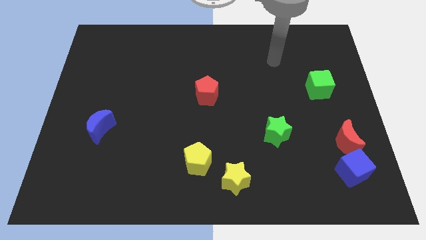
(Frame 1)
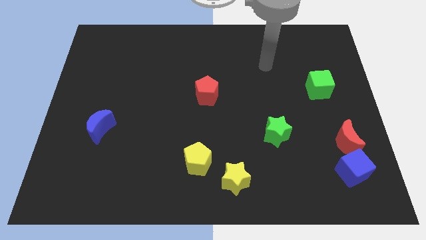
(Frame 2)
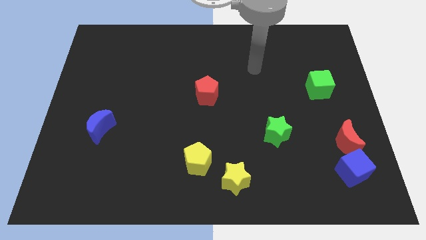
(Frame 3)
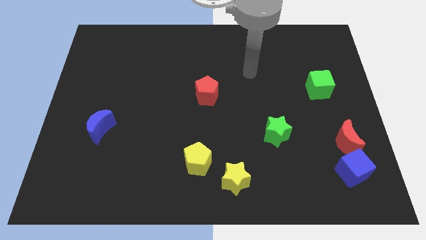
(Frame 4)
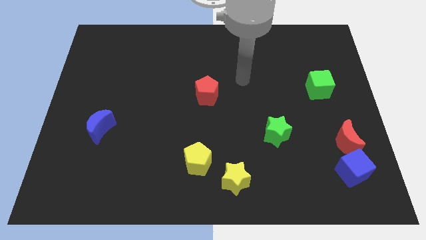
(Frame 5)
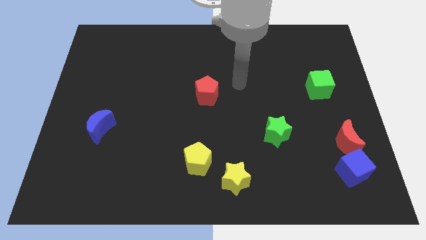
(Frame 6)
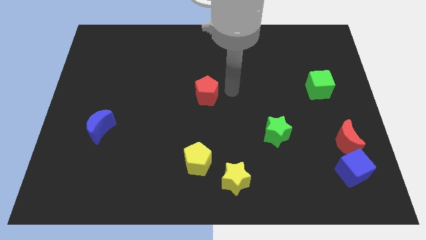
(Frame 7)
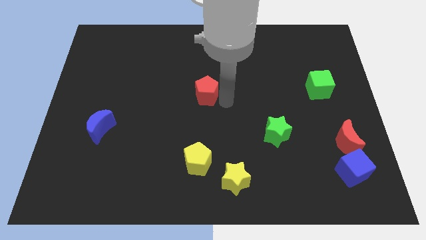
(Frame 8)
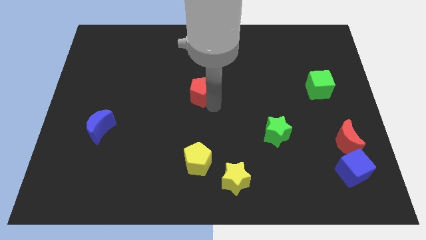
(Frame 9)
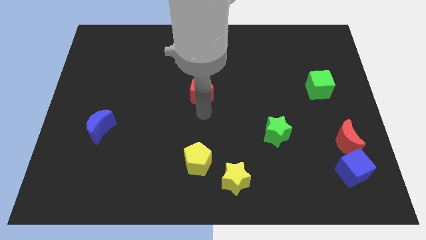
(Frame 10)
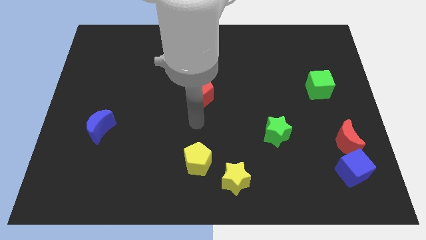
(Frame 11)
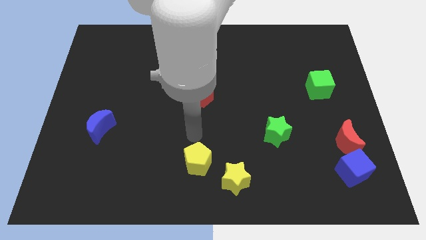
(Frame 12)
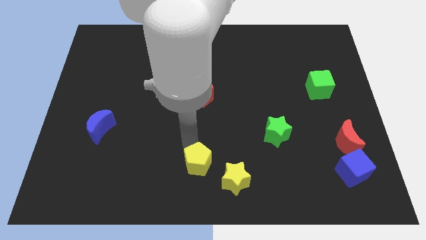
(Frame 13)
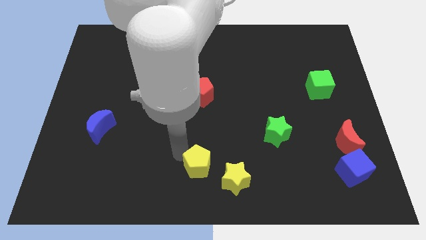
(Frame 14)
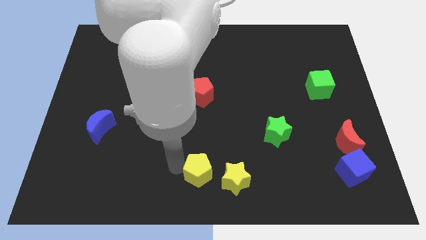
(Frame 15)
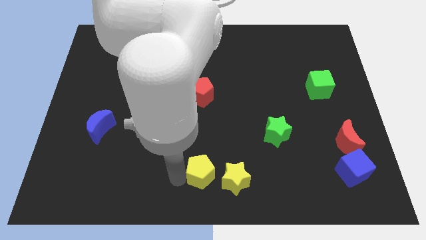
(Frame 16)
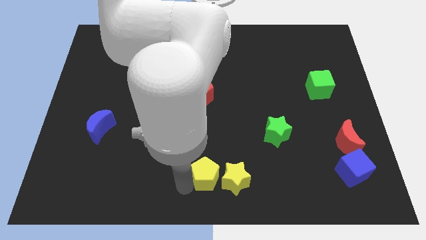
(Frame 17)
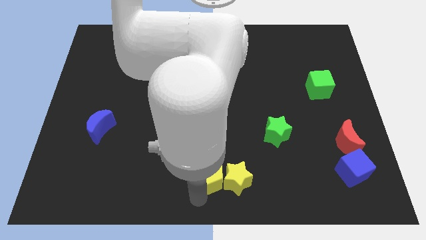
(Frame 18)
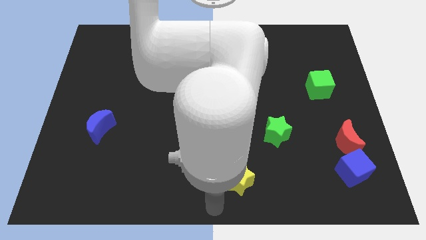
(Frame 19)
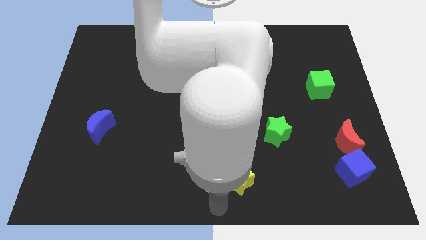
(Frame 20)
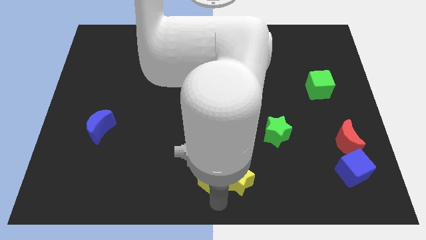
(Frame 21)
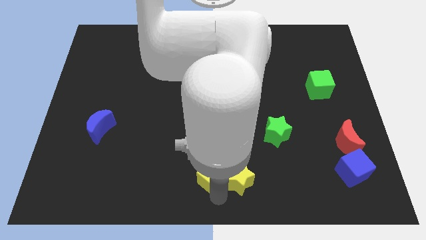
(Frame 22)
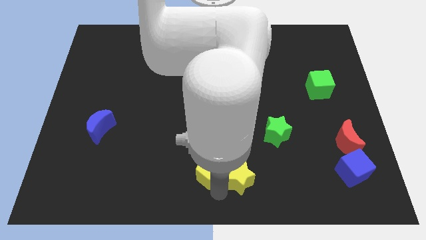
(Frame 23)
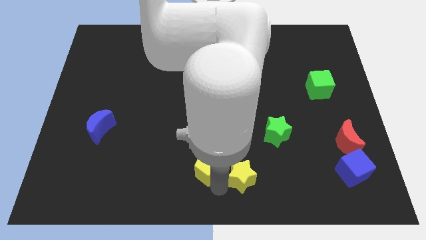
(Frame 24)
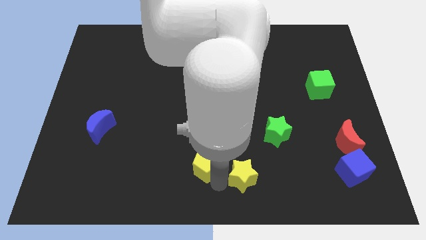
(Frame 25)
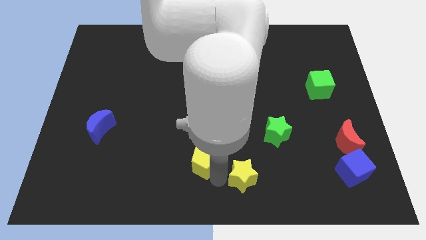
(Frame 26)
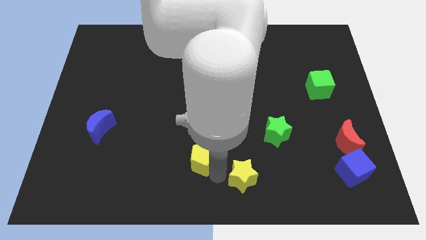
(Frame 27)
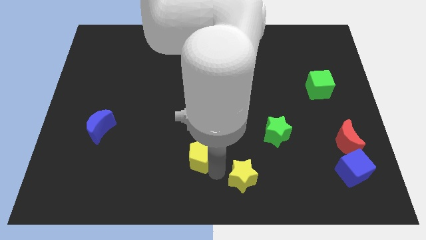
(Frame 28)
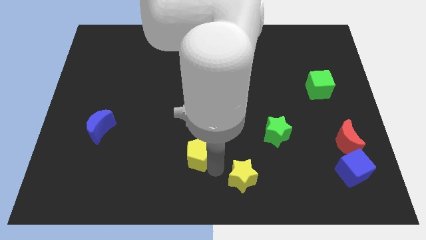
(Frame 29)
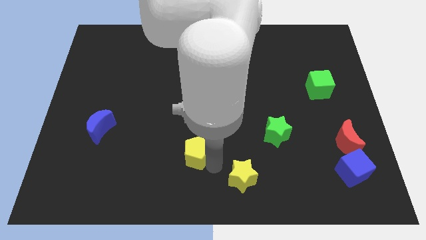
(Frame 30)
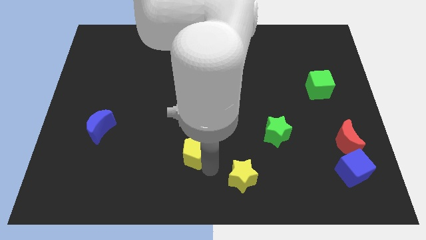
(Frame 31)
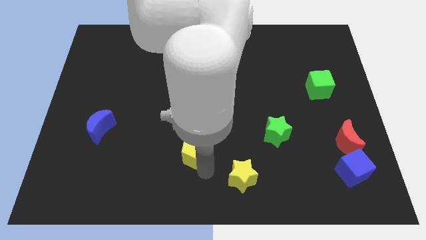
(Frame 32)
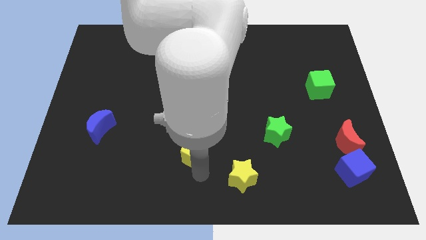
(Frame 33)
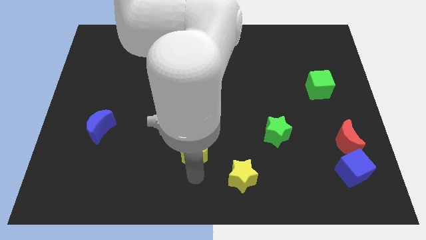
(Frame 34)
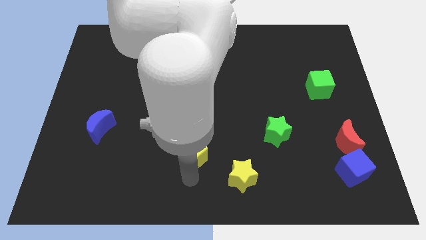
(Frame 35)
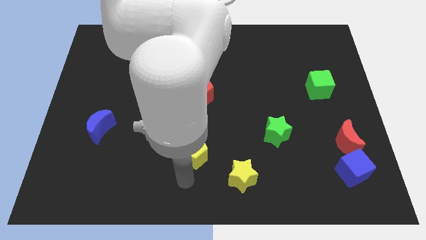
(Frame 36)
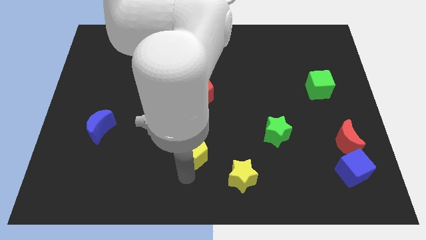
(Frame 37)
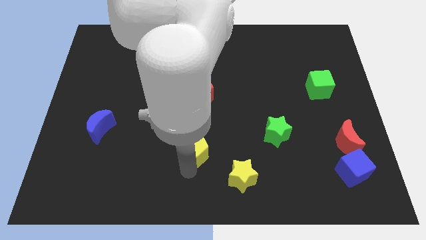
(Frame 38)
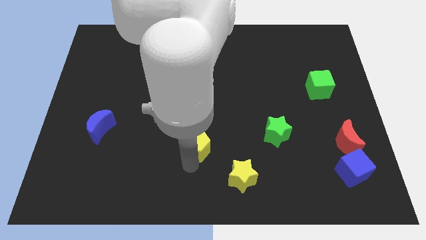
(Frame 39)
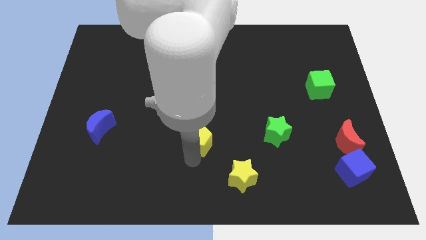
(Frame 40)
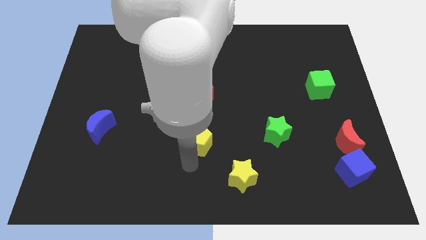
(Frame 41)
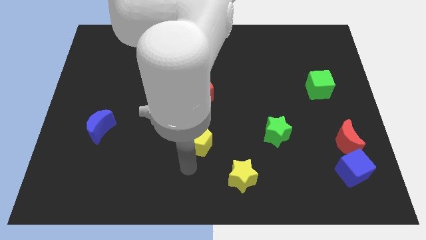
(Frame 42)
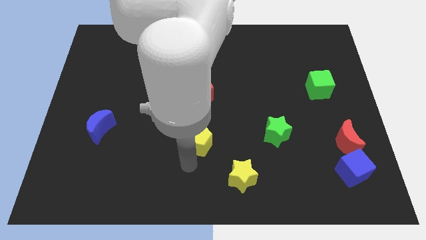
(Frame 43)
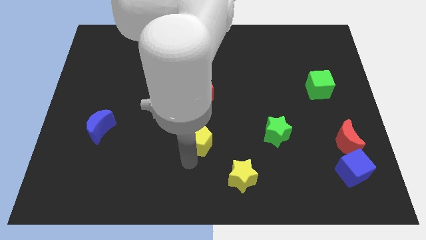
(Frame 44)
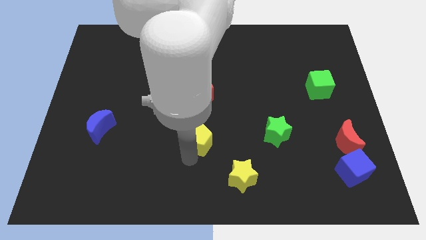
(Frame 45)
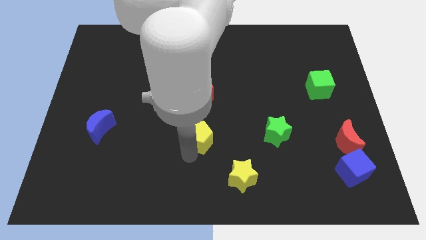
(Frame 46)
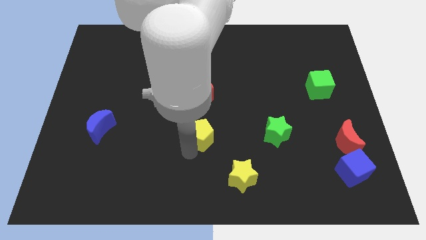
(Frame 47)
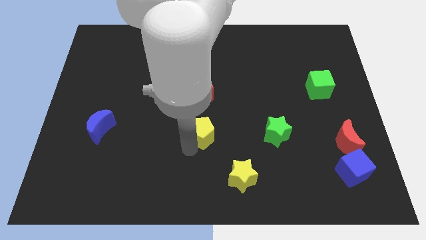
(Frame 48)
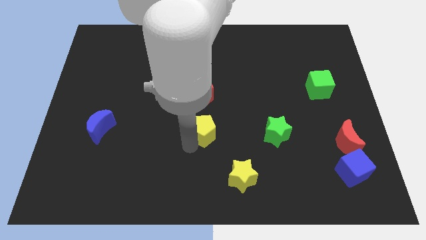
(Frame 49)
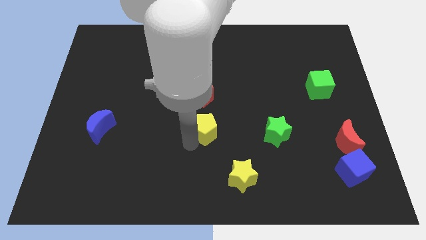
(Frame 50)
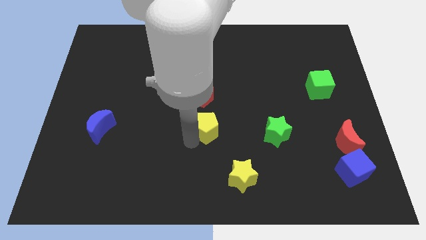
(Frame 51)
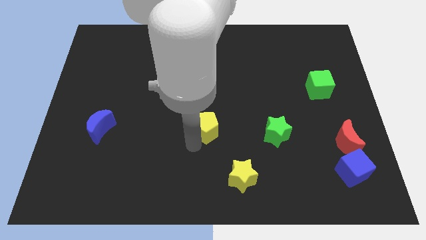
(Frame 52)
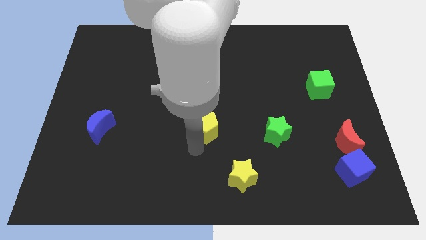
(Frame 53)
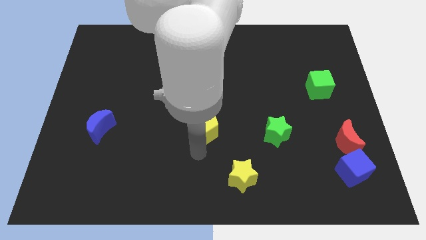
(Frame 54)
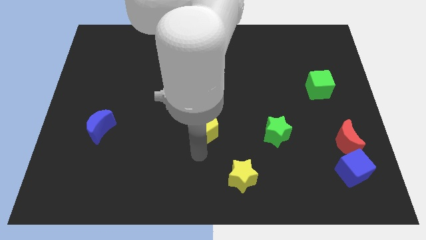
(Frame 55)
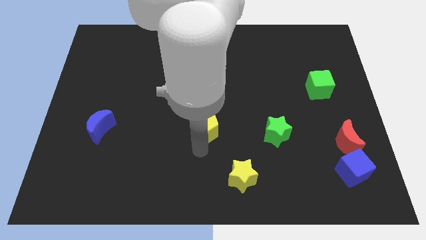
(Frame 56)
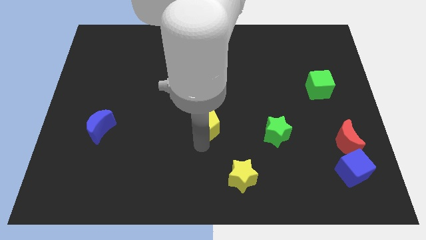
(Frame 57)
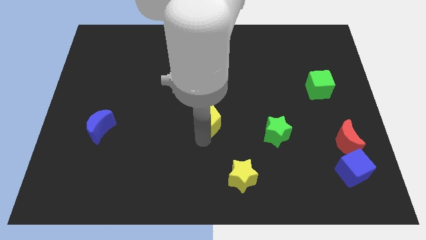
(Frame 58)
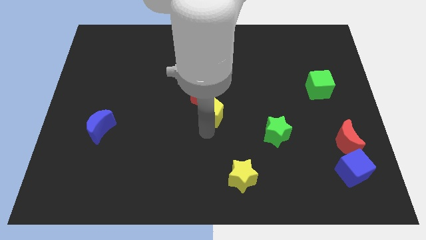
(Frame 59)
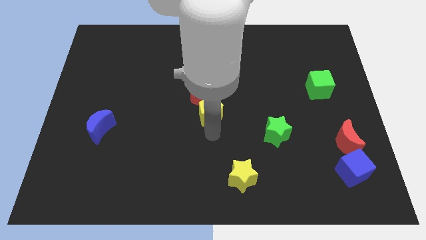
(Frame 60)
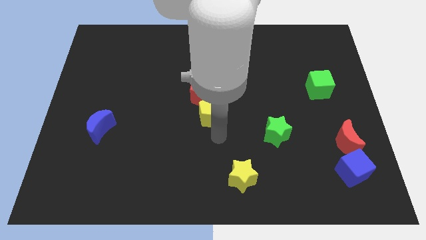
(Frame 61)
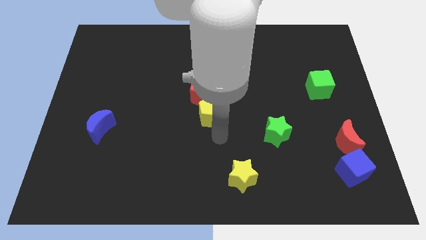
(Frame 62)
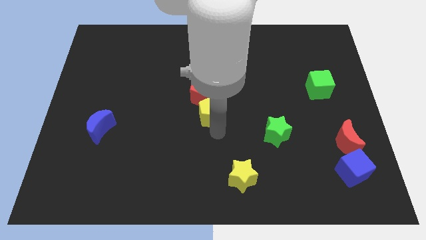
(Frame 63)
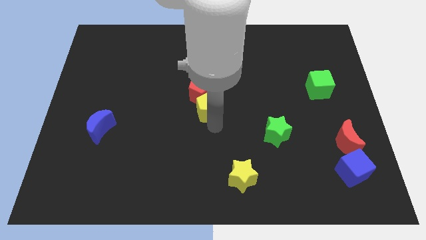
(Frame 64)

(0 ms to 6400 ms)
push the yellow pentagon towards the red pentagon

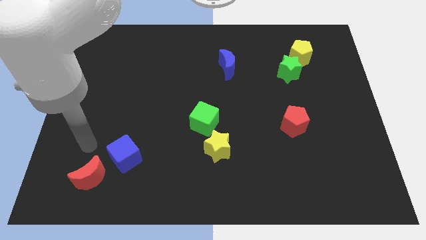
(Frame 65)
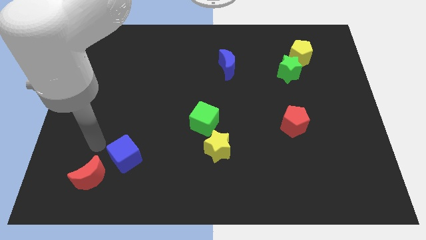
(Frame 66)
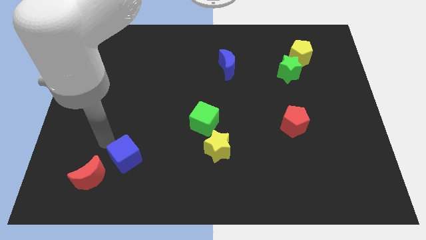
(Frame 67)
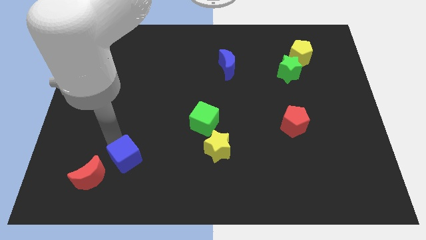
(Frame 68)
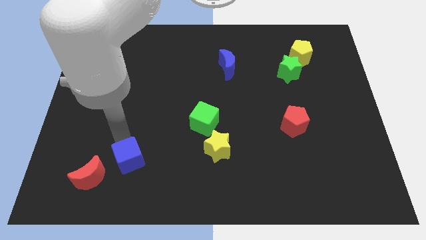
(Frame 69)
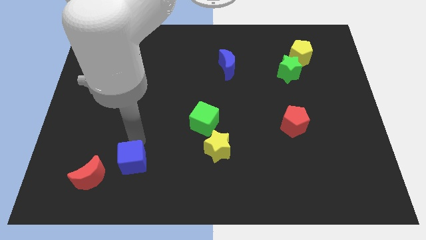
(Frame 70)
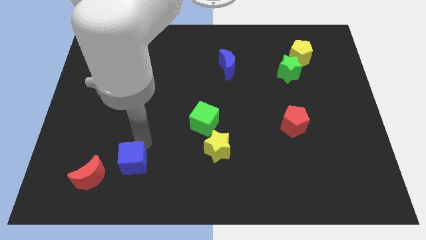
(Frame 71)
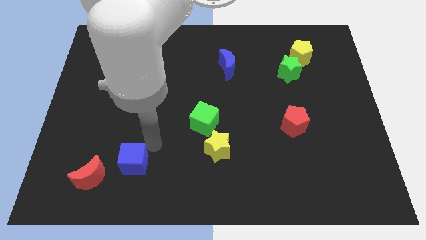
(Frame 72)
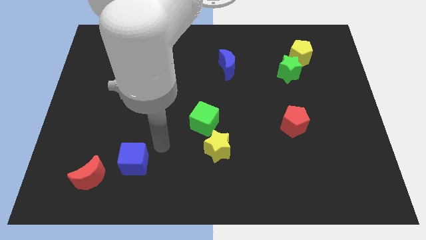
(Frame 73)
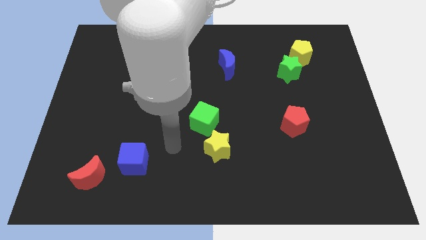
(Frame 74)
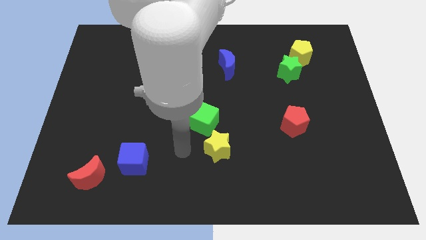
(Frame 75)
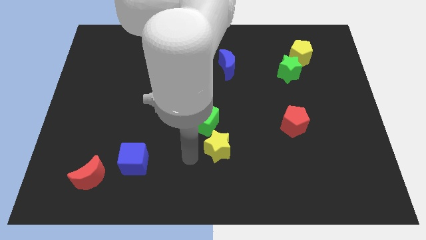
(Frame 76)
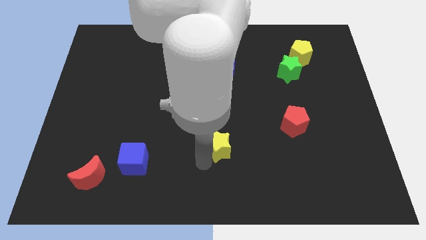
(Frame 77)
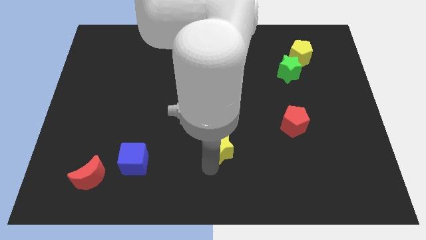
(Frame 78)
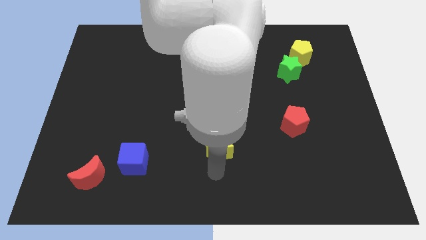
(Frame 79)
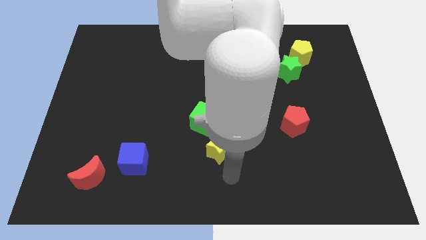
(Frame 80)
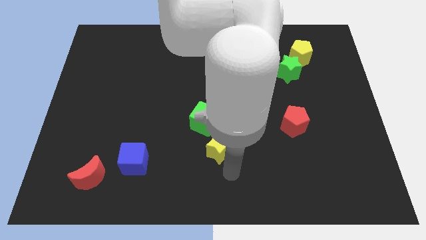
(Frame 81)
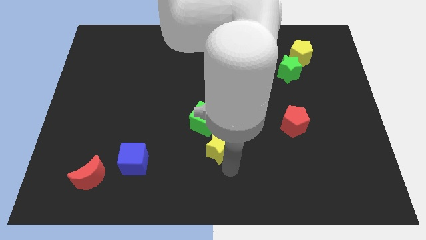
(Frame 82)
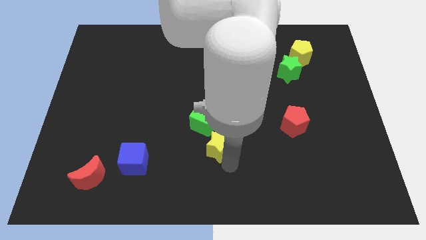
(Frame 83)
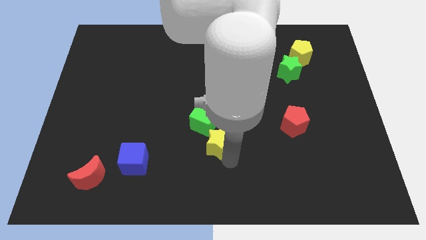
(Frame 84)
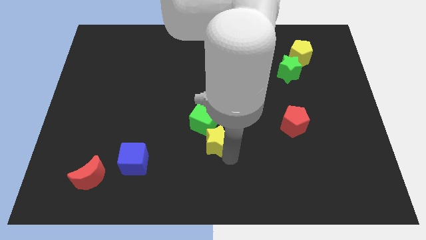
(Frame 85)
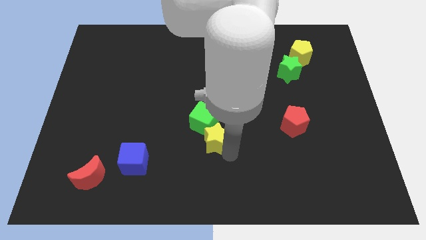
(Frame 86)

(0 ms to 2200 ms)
move the yellow star next to the green cube
